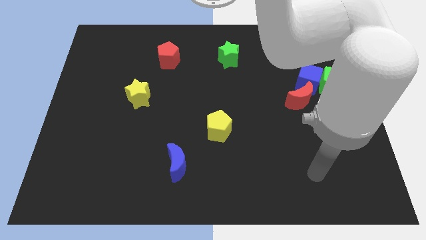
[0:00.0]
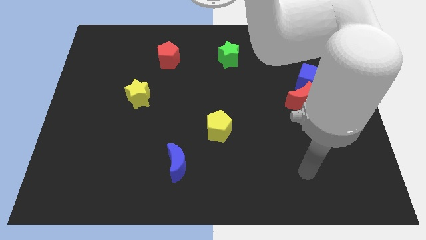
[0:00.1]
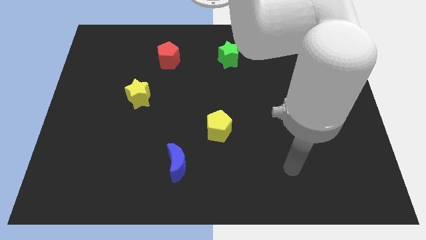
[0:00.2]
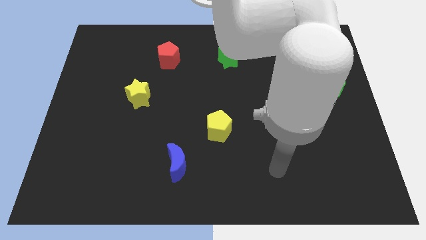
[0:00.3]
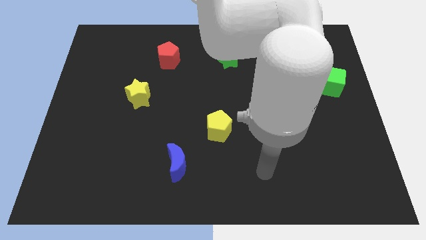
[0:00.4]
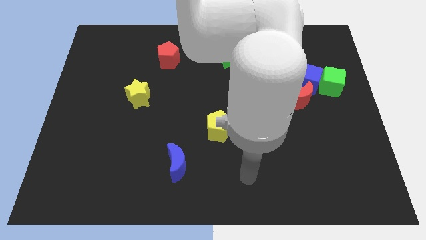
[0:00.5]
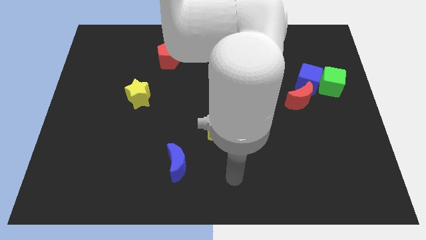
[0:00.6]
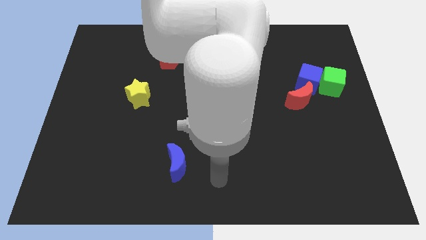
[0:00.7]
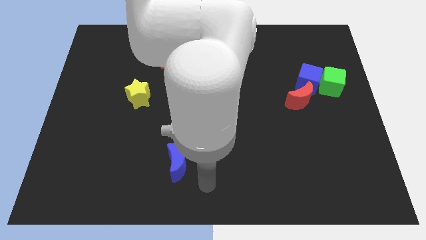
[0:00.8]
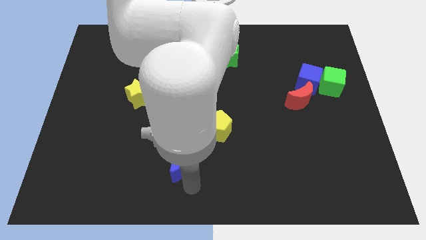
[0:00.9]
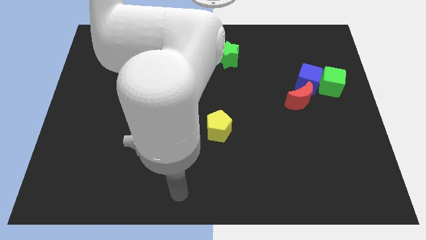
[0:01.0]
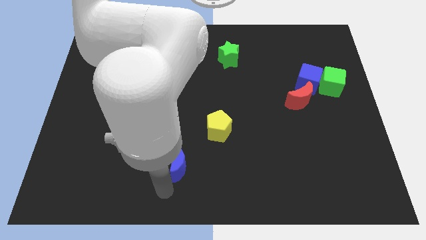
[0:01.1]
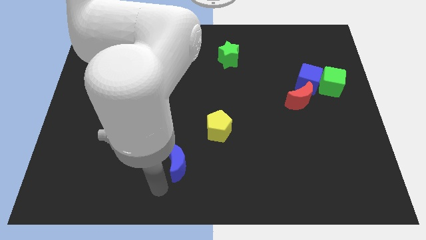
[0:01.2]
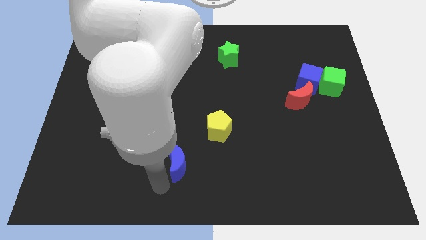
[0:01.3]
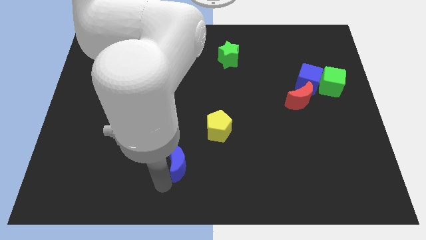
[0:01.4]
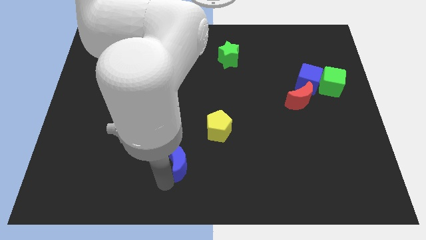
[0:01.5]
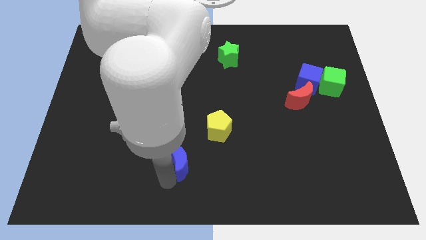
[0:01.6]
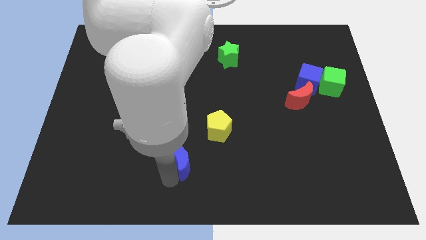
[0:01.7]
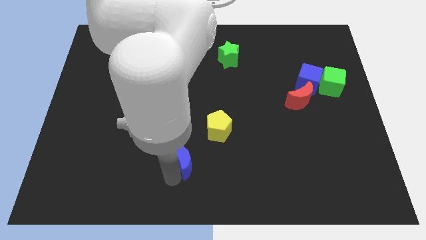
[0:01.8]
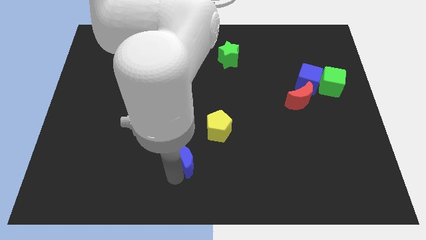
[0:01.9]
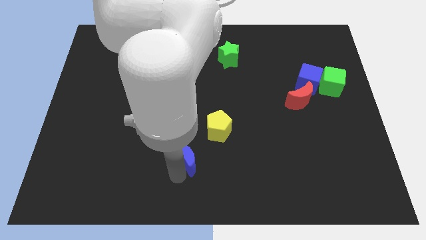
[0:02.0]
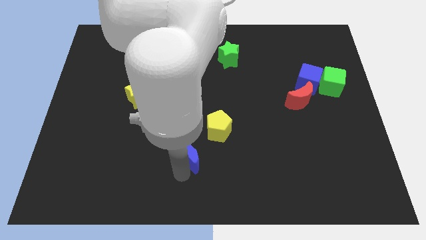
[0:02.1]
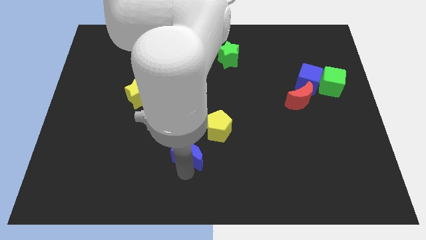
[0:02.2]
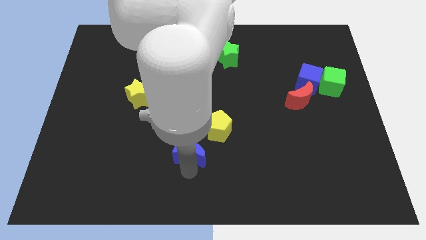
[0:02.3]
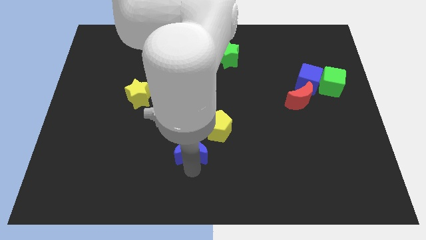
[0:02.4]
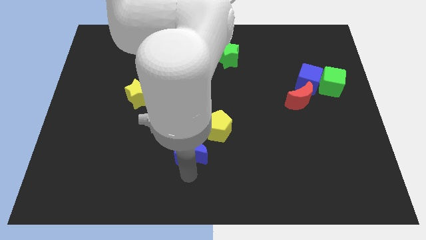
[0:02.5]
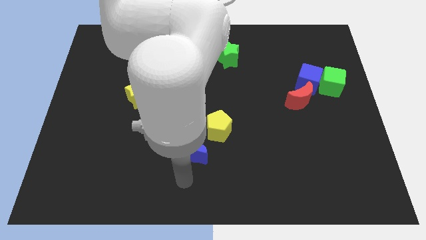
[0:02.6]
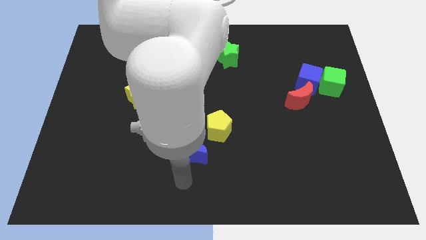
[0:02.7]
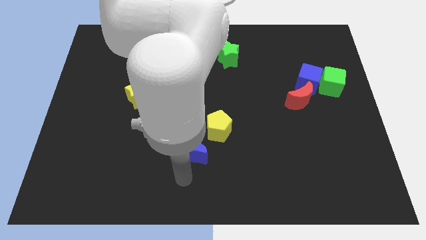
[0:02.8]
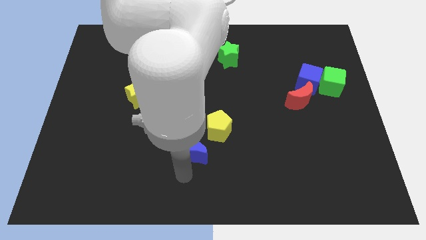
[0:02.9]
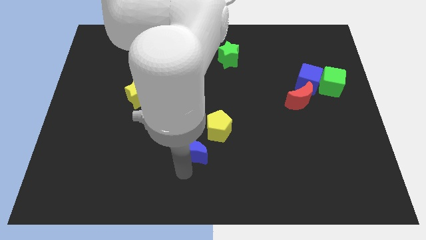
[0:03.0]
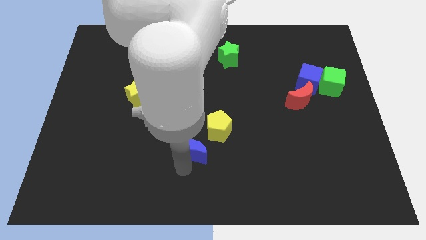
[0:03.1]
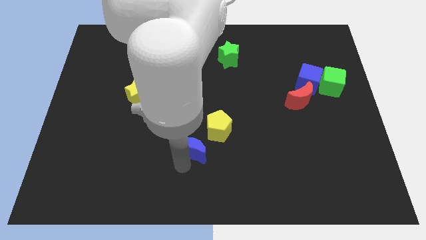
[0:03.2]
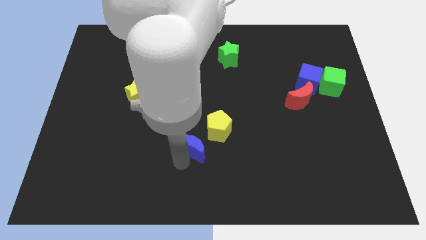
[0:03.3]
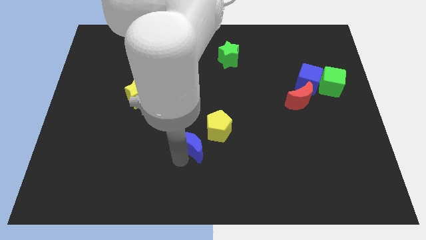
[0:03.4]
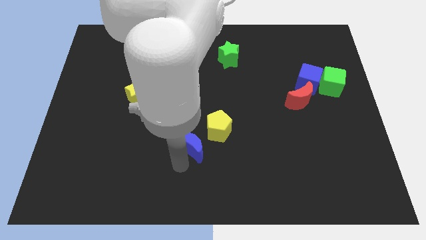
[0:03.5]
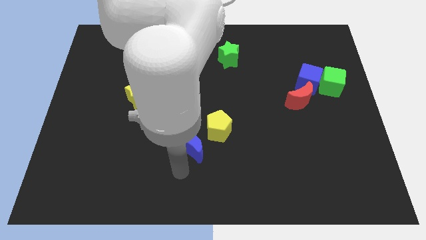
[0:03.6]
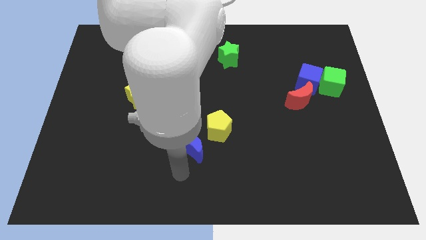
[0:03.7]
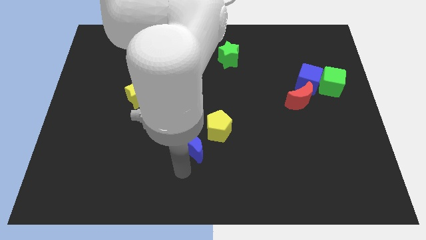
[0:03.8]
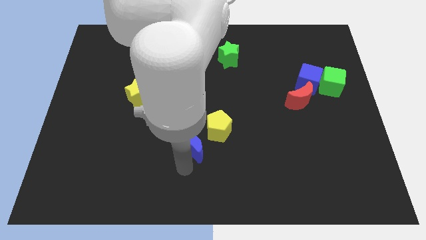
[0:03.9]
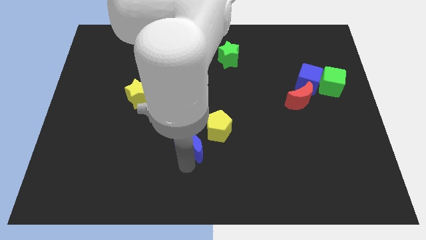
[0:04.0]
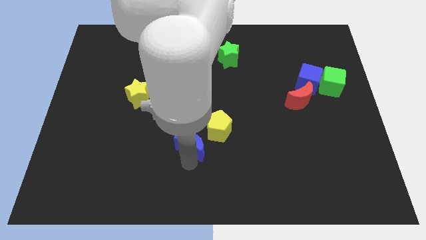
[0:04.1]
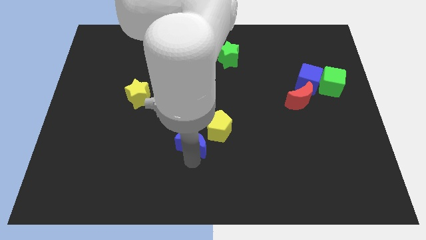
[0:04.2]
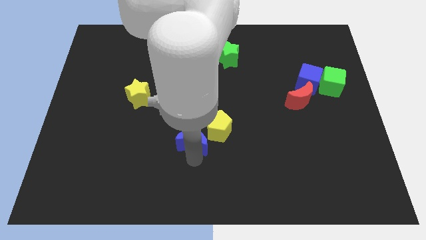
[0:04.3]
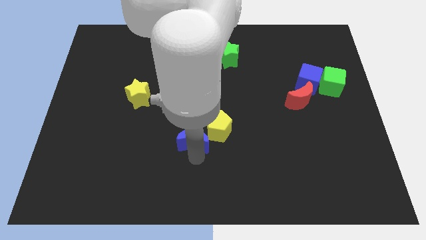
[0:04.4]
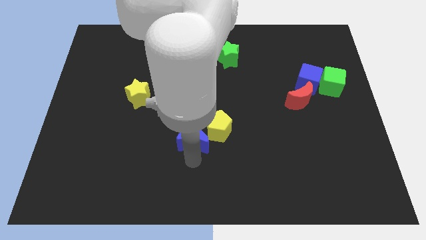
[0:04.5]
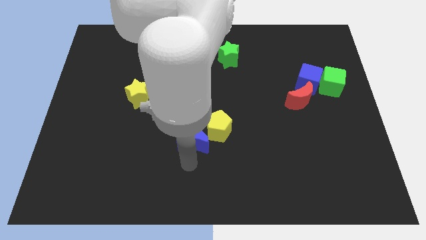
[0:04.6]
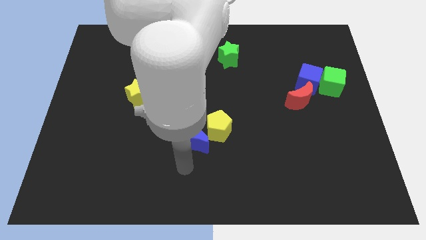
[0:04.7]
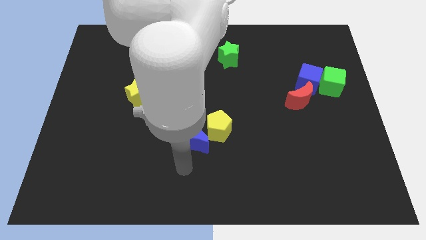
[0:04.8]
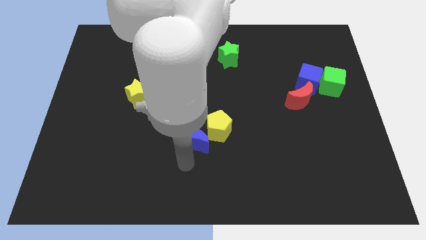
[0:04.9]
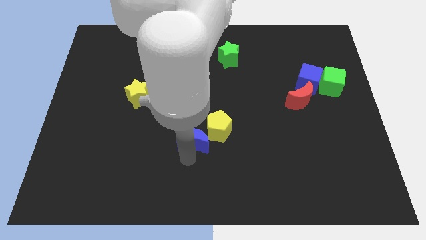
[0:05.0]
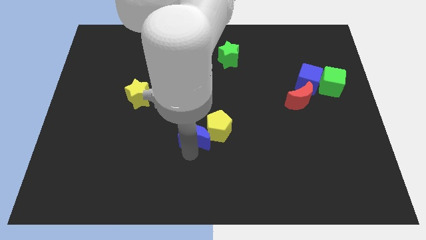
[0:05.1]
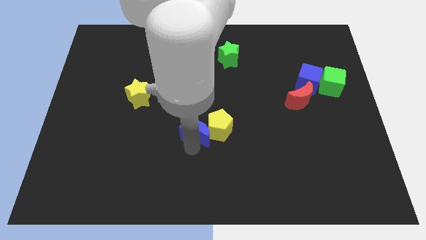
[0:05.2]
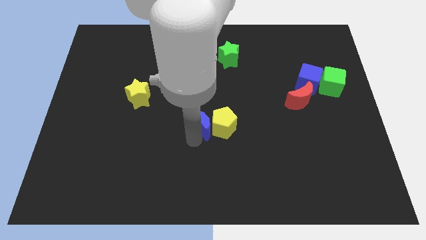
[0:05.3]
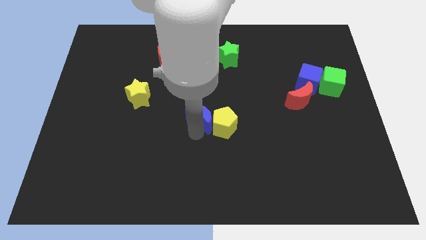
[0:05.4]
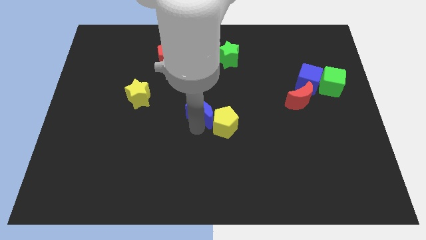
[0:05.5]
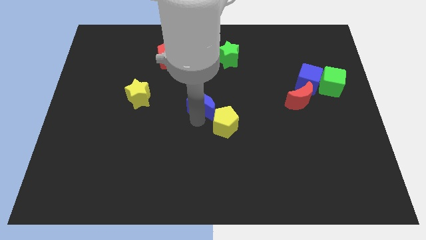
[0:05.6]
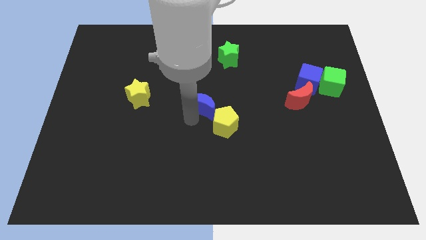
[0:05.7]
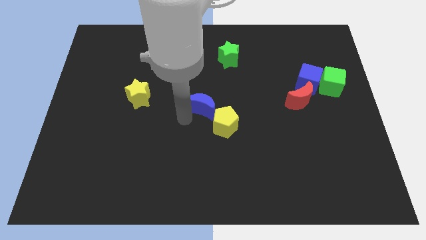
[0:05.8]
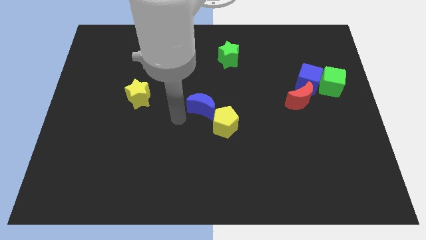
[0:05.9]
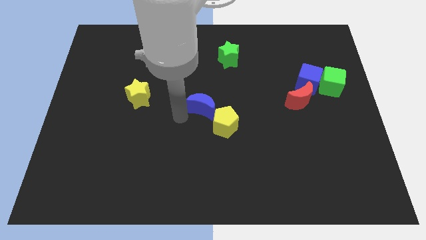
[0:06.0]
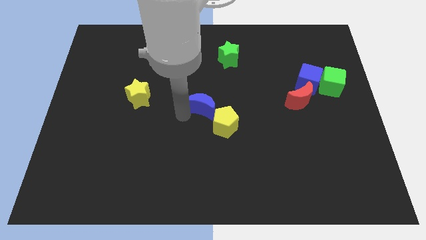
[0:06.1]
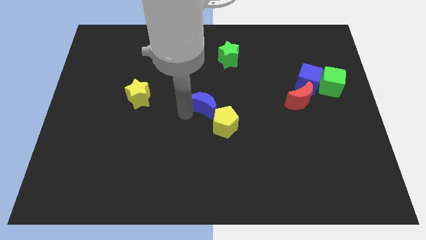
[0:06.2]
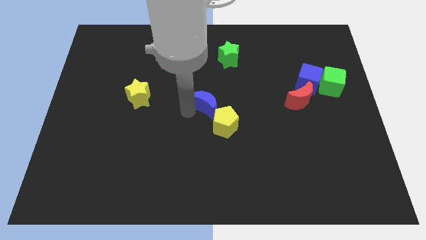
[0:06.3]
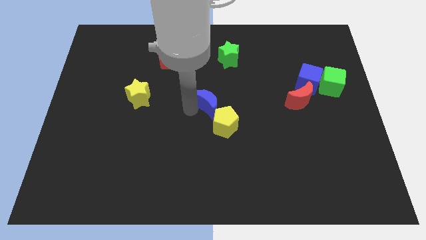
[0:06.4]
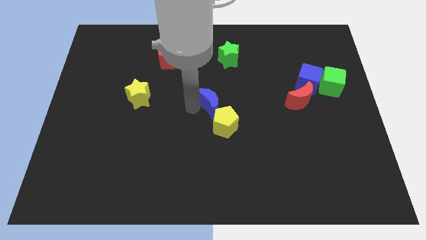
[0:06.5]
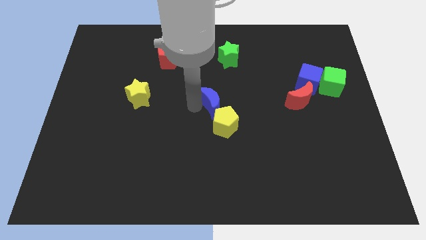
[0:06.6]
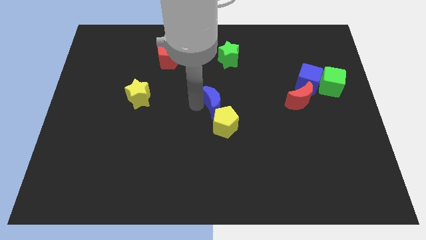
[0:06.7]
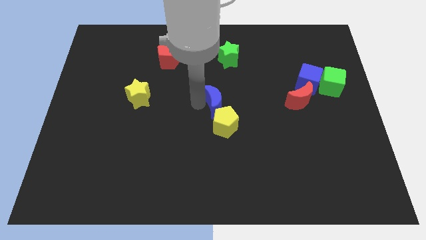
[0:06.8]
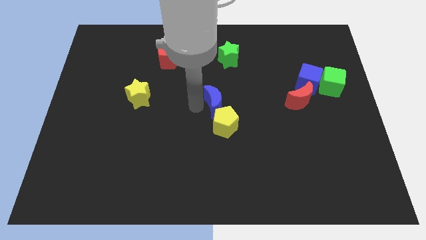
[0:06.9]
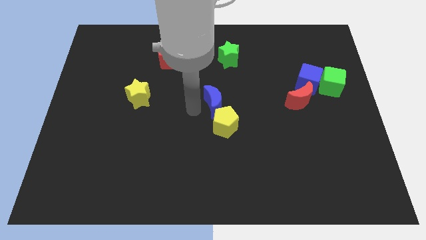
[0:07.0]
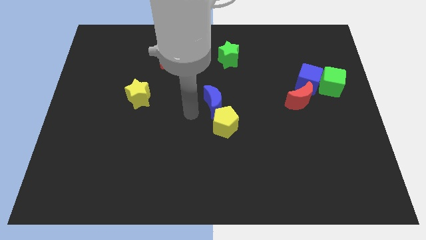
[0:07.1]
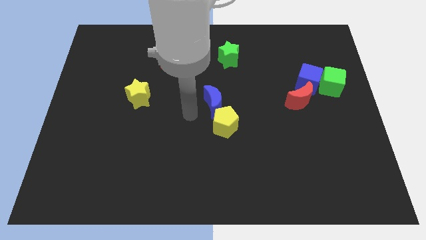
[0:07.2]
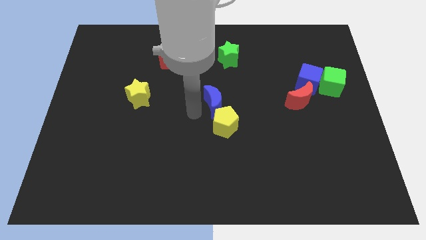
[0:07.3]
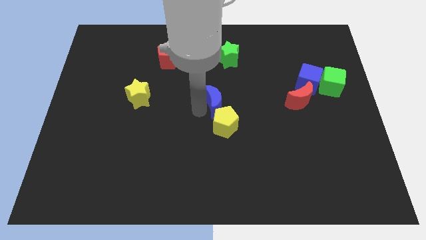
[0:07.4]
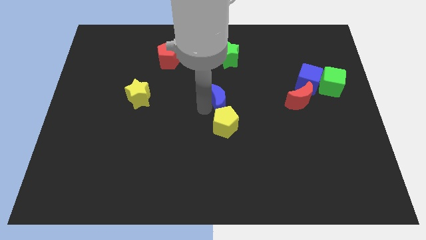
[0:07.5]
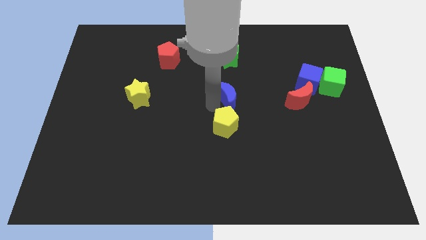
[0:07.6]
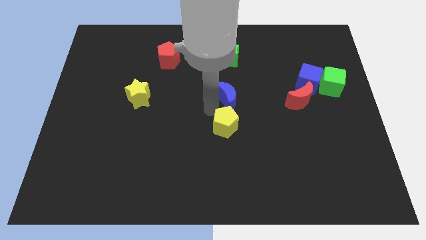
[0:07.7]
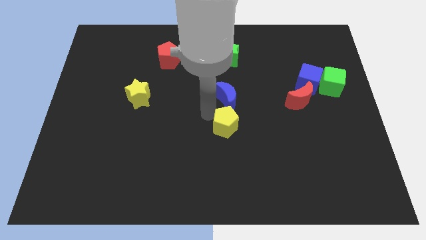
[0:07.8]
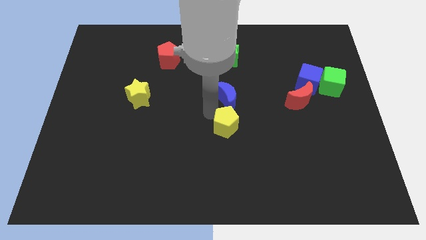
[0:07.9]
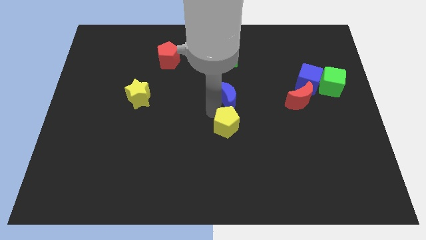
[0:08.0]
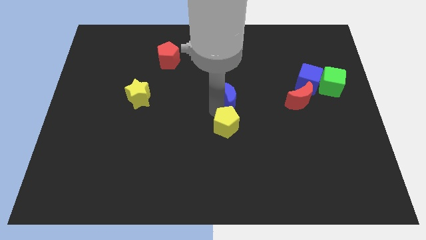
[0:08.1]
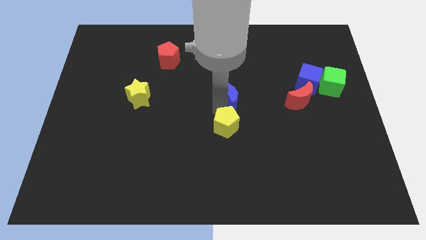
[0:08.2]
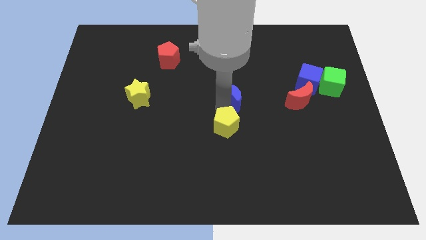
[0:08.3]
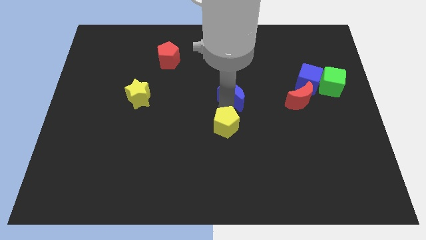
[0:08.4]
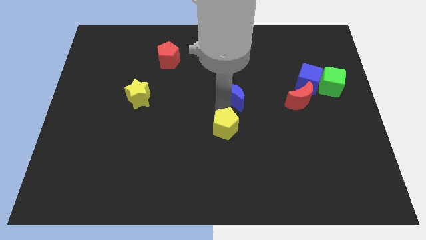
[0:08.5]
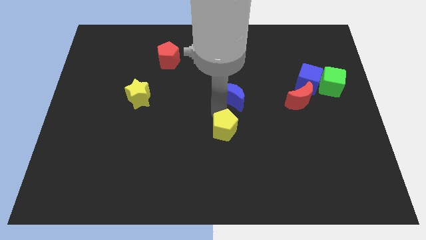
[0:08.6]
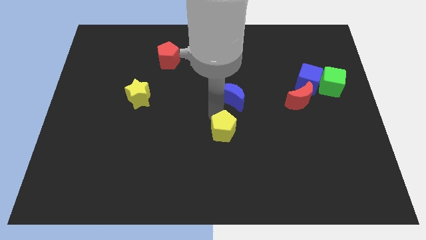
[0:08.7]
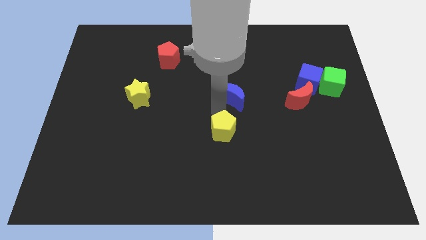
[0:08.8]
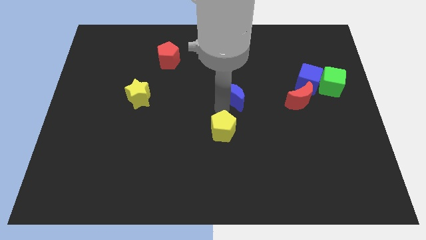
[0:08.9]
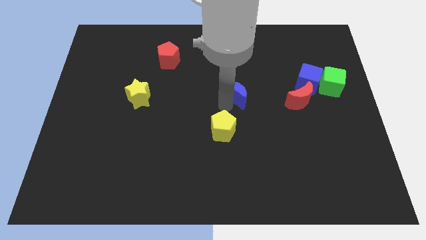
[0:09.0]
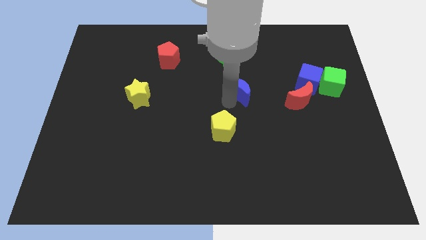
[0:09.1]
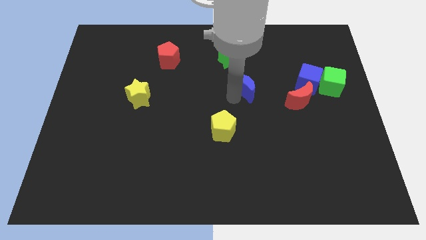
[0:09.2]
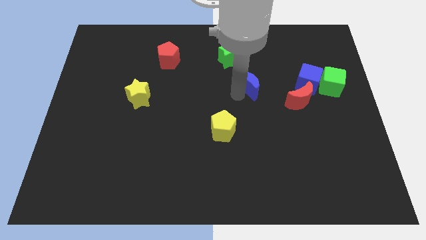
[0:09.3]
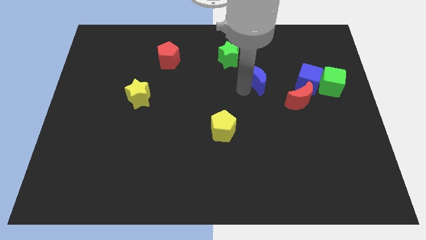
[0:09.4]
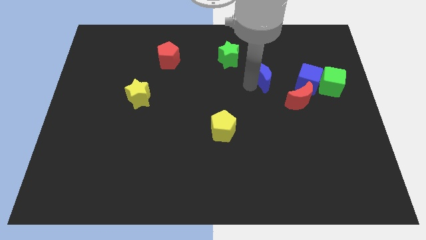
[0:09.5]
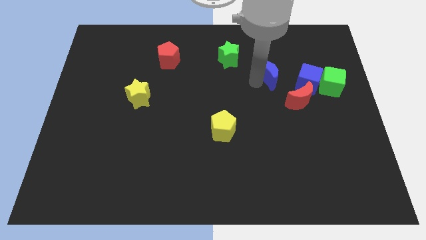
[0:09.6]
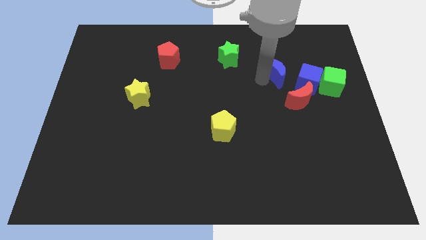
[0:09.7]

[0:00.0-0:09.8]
move the blue moon to the top left side of the blue cube
